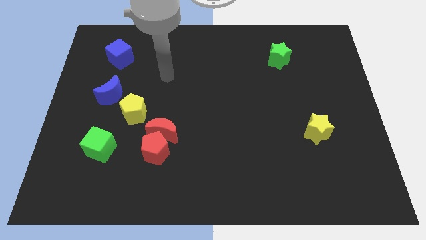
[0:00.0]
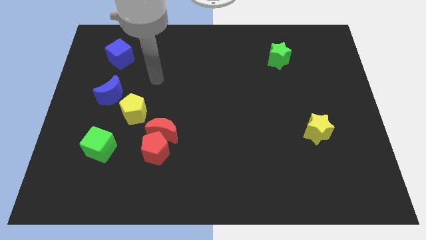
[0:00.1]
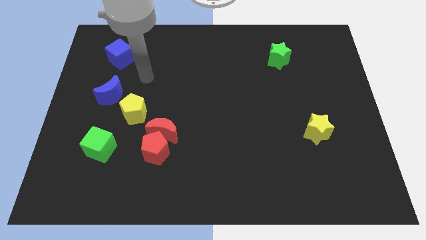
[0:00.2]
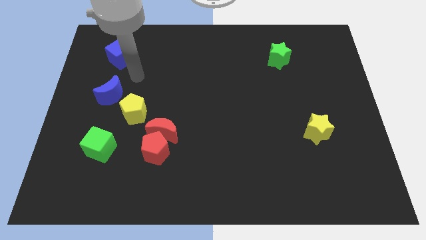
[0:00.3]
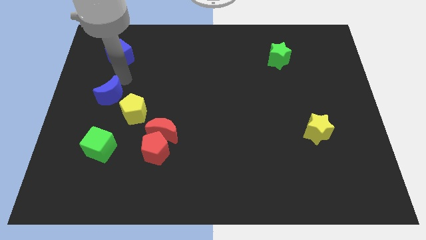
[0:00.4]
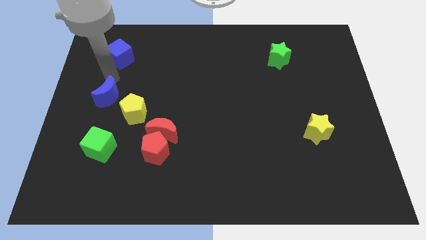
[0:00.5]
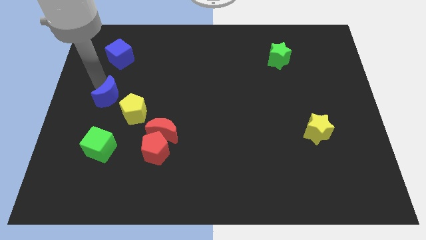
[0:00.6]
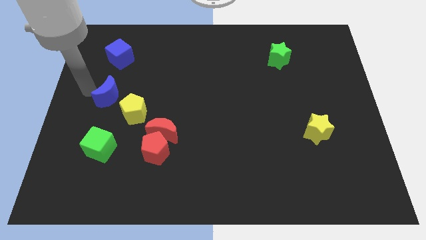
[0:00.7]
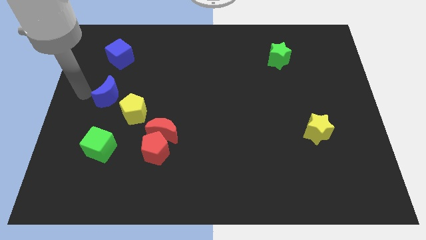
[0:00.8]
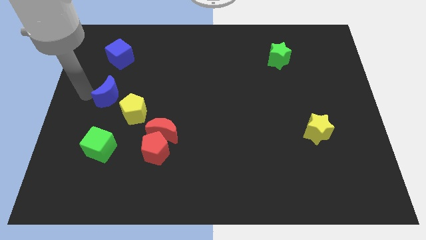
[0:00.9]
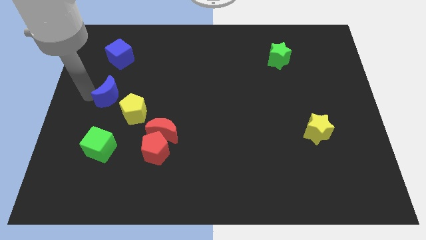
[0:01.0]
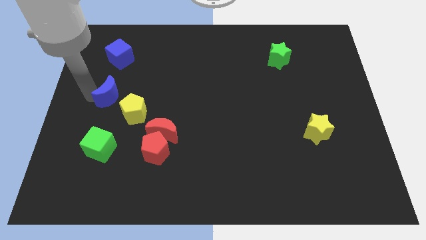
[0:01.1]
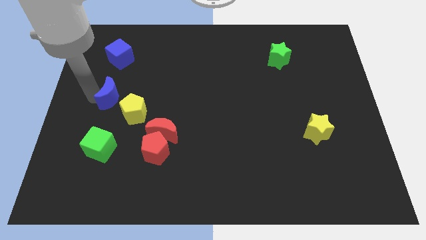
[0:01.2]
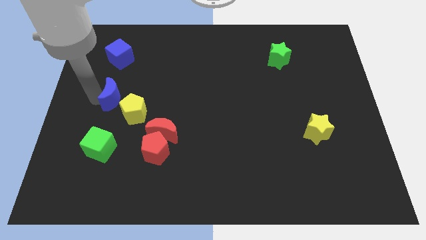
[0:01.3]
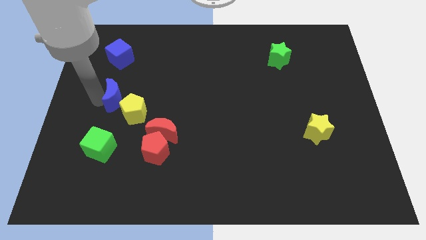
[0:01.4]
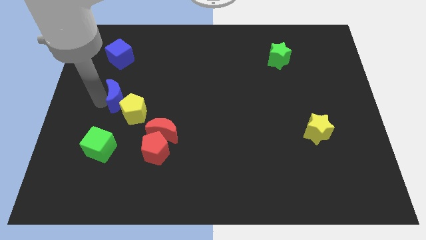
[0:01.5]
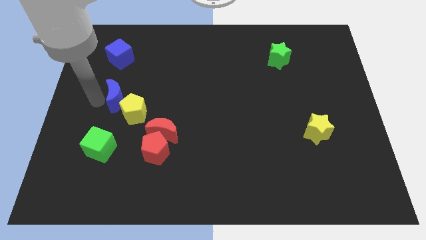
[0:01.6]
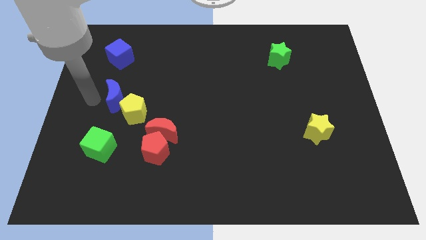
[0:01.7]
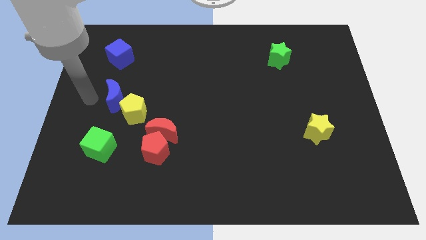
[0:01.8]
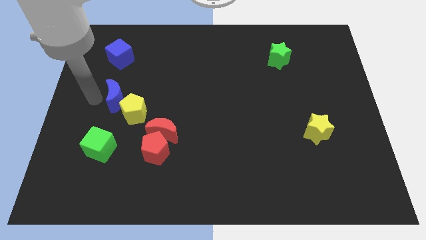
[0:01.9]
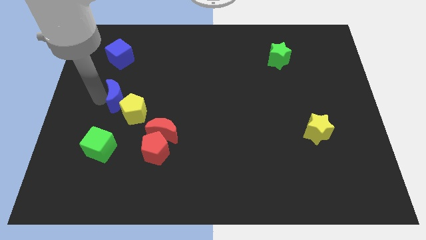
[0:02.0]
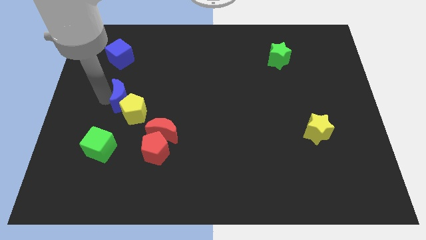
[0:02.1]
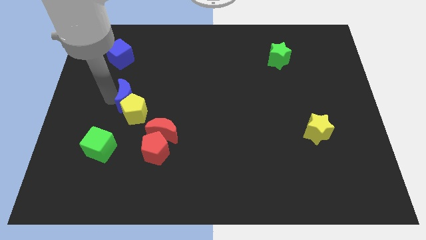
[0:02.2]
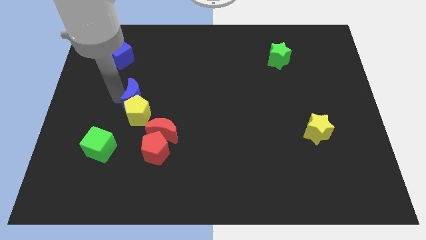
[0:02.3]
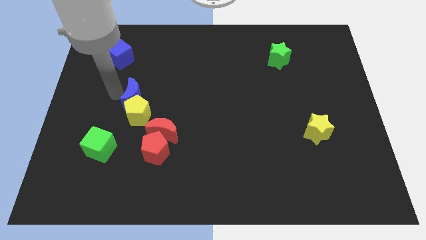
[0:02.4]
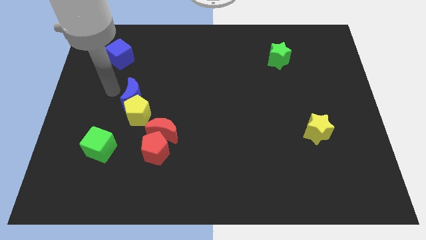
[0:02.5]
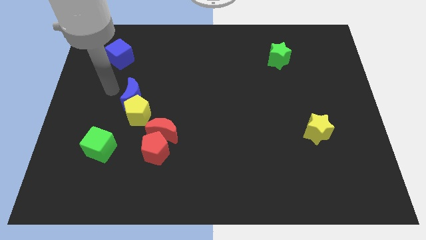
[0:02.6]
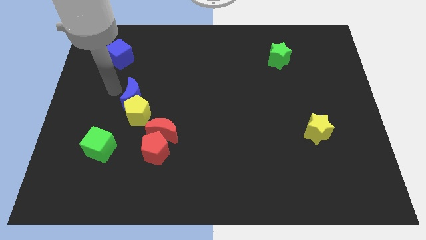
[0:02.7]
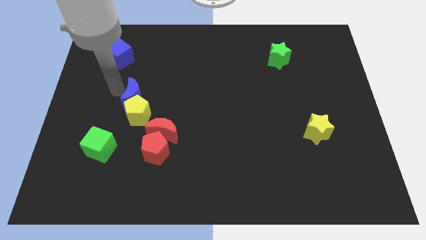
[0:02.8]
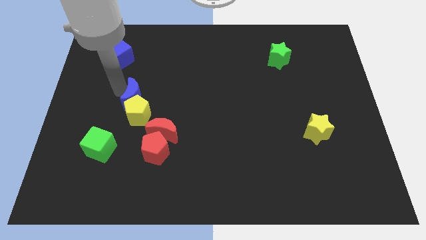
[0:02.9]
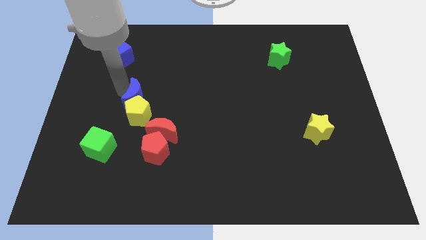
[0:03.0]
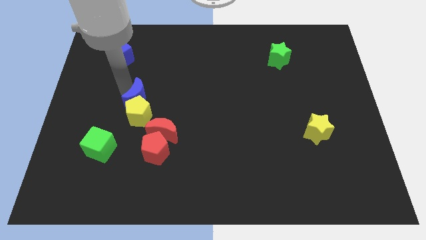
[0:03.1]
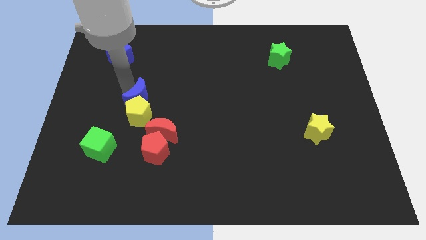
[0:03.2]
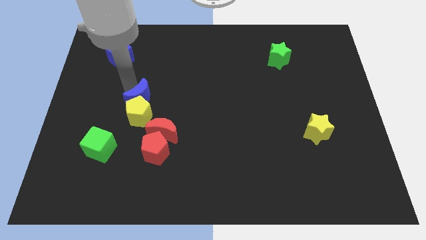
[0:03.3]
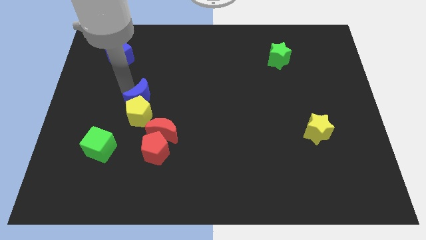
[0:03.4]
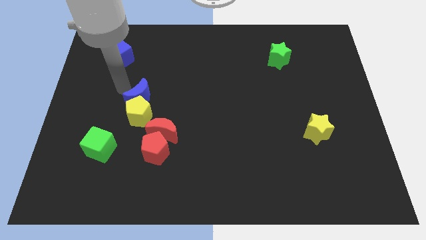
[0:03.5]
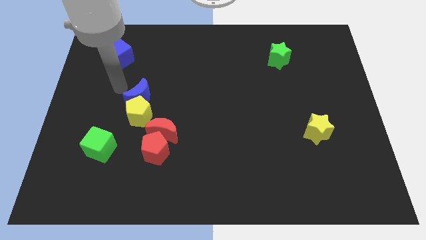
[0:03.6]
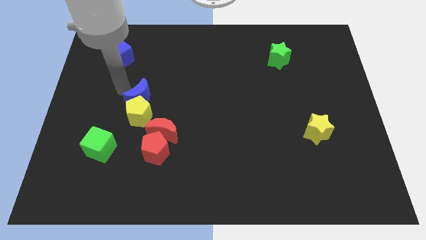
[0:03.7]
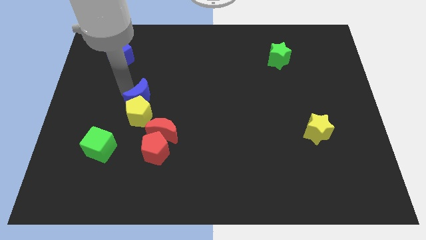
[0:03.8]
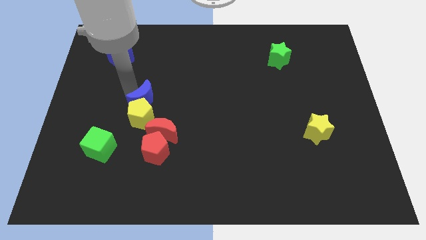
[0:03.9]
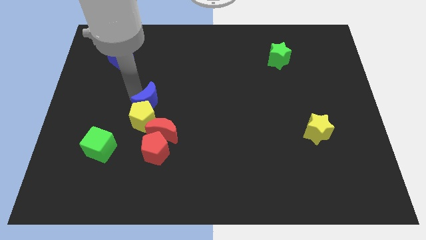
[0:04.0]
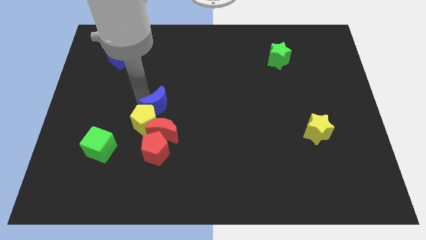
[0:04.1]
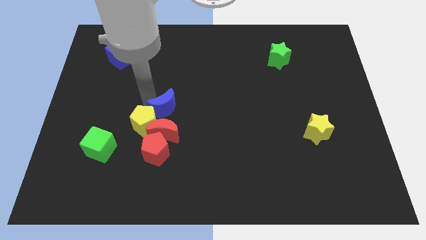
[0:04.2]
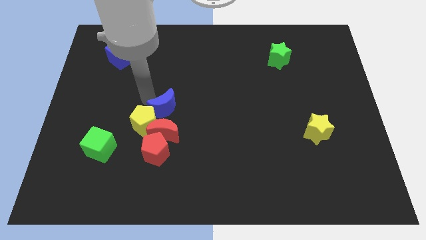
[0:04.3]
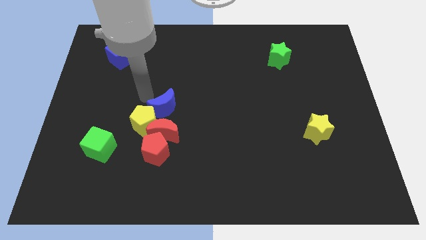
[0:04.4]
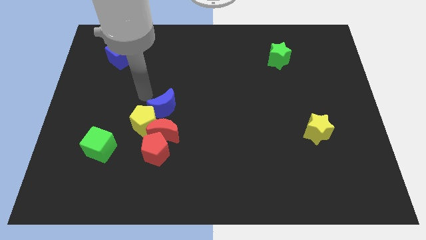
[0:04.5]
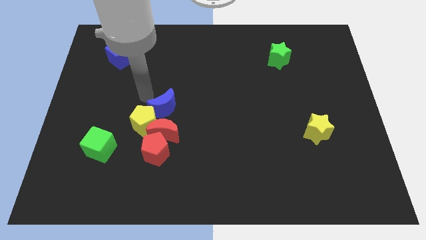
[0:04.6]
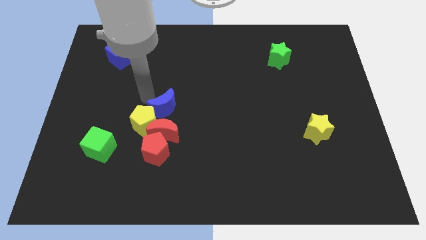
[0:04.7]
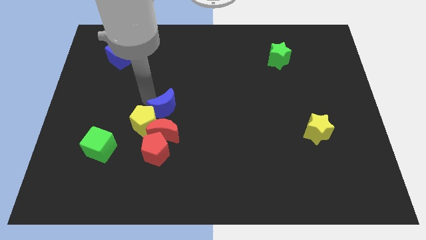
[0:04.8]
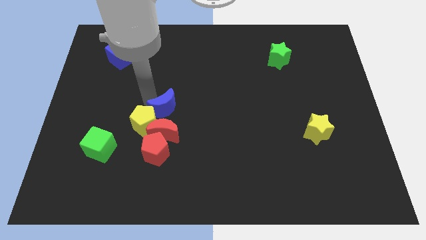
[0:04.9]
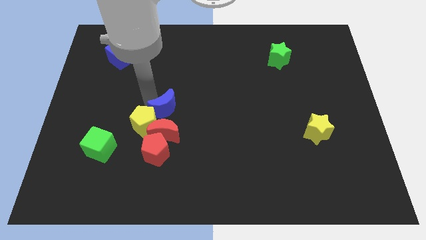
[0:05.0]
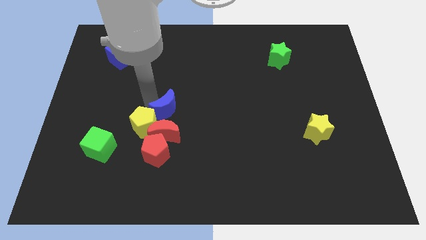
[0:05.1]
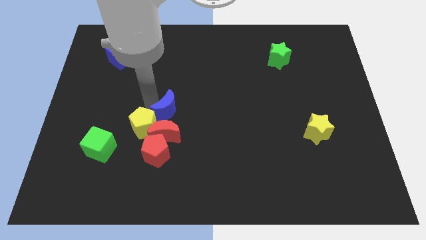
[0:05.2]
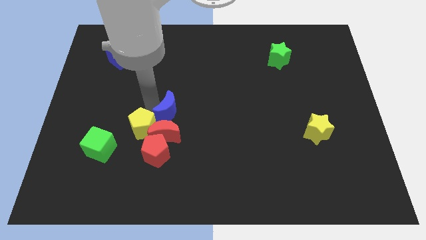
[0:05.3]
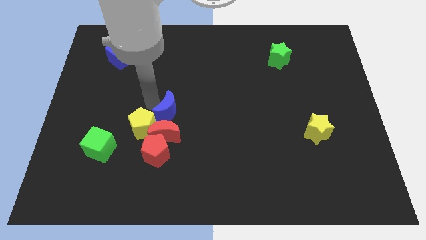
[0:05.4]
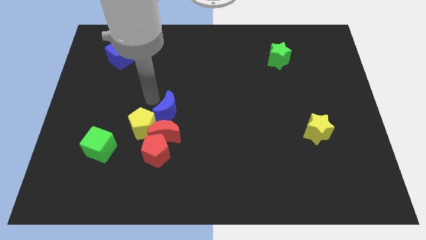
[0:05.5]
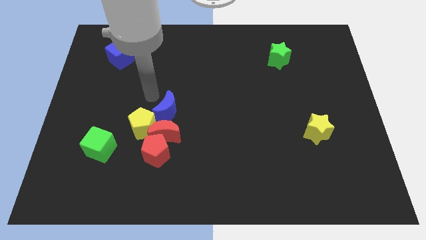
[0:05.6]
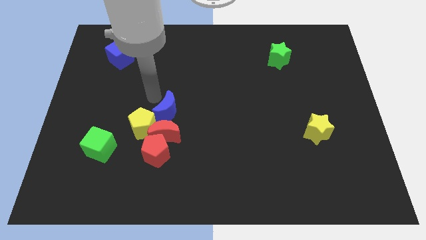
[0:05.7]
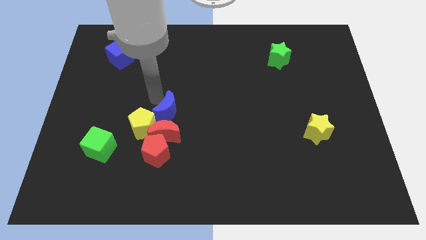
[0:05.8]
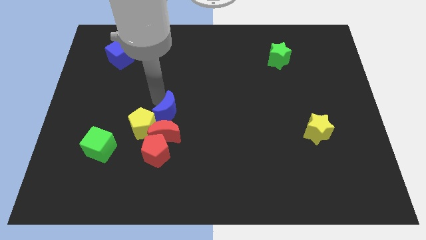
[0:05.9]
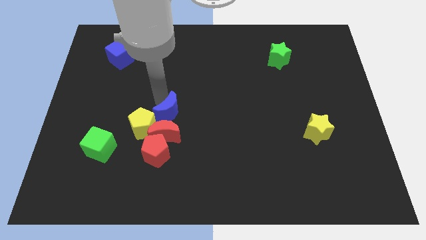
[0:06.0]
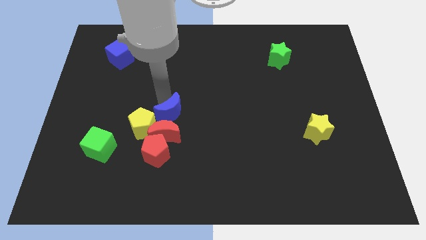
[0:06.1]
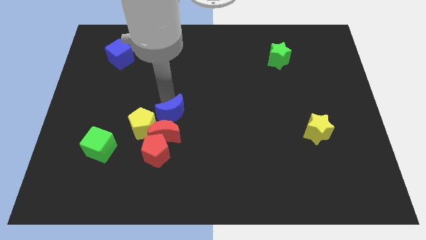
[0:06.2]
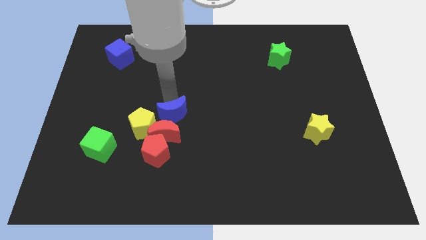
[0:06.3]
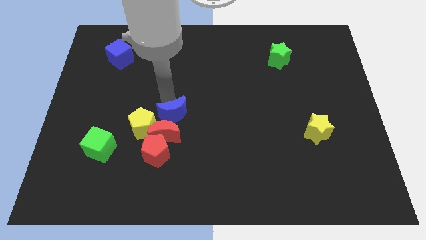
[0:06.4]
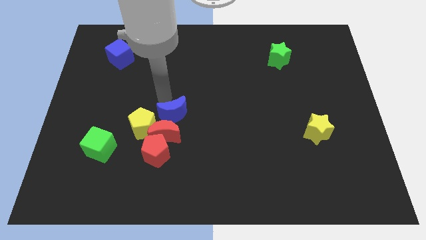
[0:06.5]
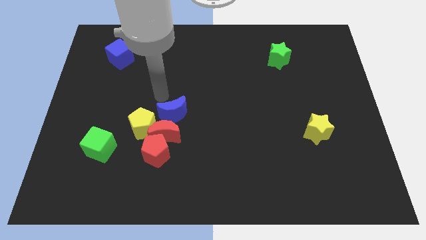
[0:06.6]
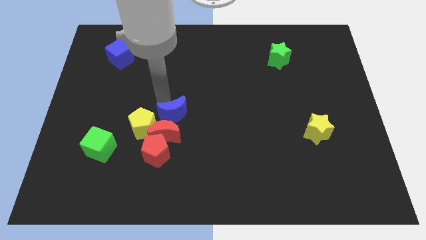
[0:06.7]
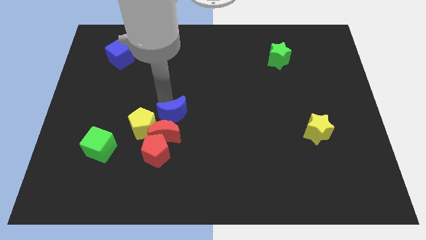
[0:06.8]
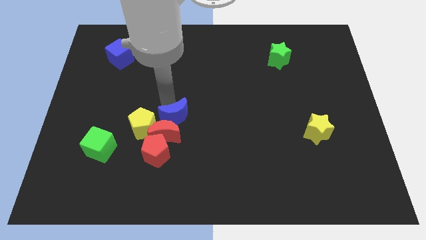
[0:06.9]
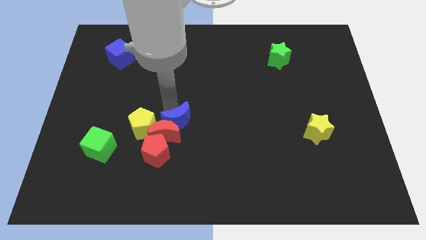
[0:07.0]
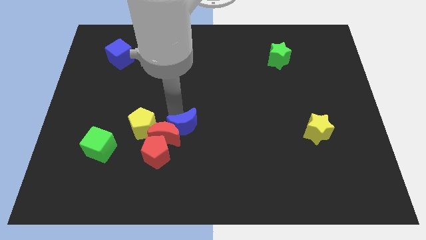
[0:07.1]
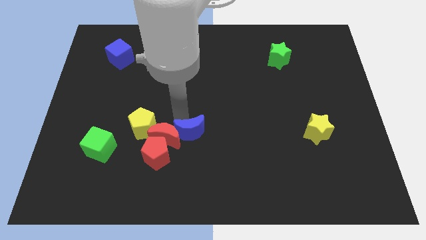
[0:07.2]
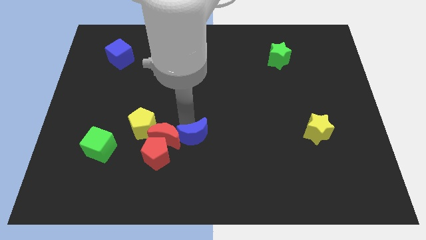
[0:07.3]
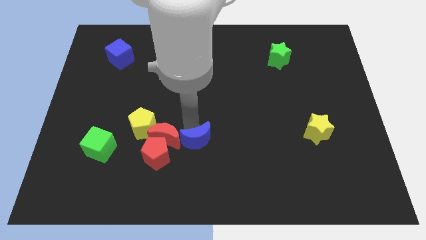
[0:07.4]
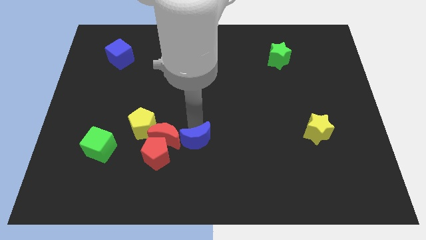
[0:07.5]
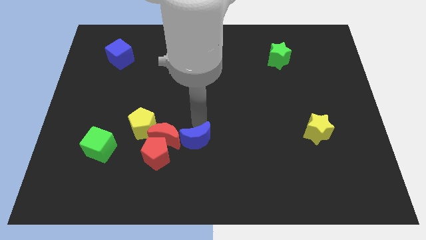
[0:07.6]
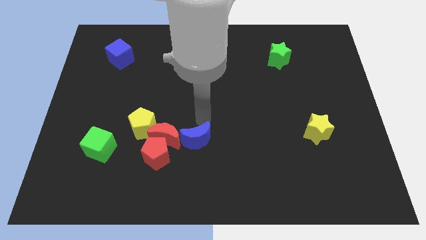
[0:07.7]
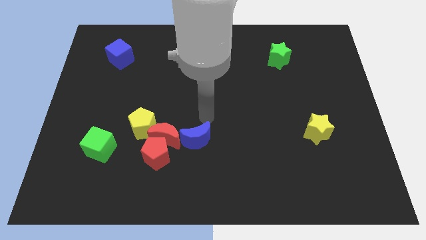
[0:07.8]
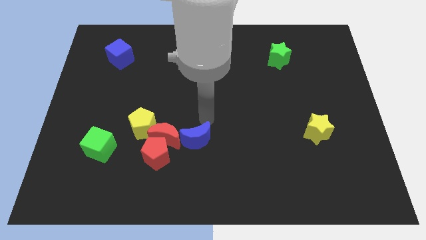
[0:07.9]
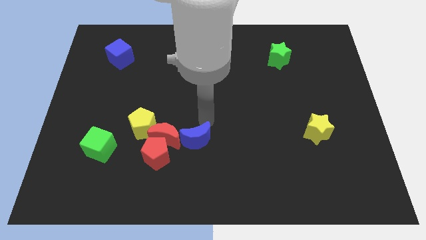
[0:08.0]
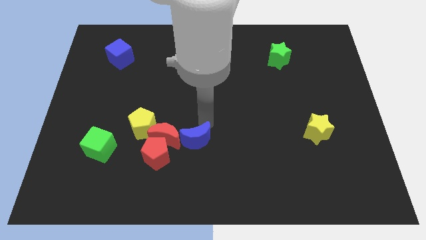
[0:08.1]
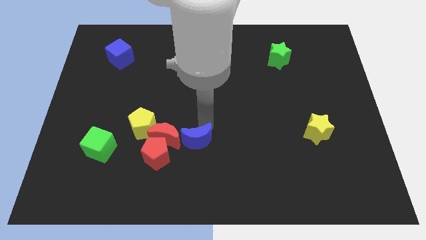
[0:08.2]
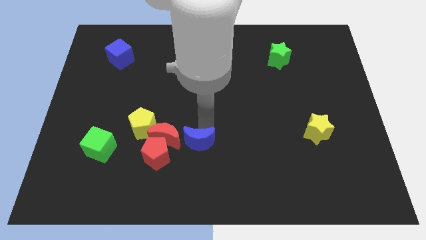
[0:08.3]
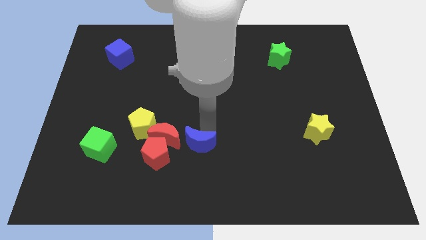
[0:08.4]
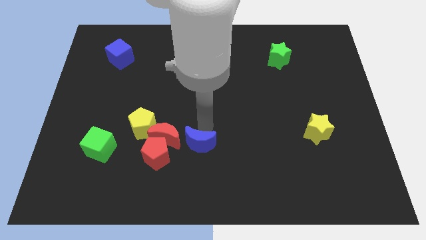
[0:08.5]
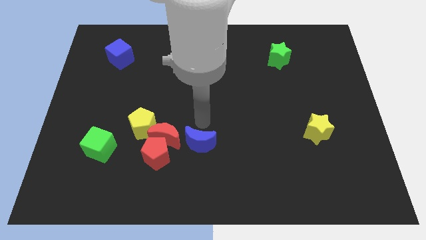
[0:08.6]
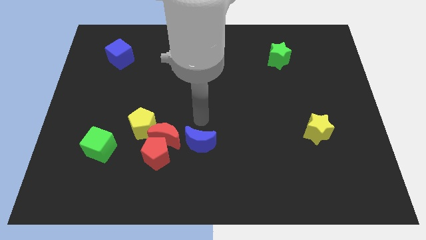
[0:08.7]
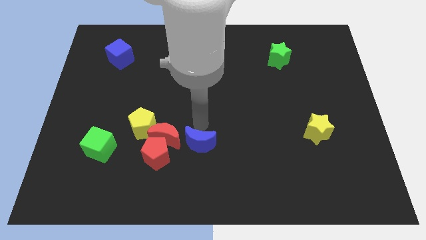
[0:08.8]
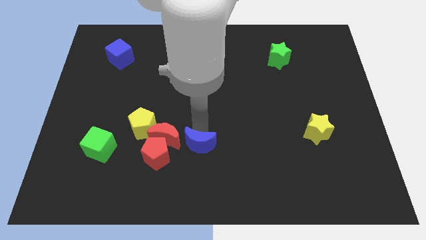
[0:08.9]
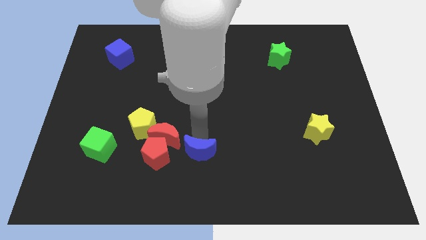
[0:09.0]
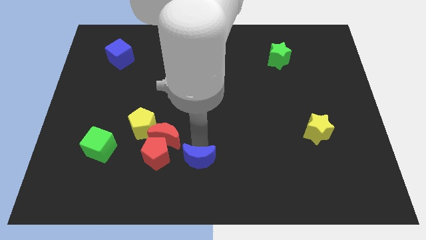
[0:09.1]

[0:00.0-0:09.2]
put the blue moon to the bottom side
